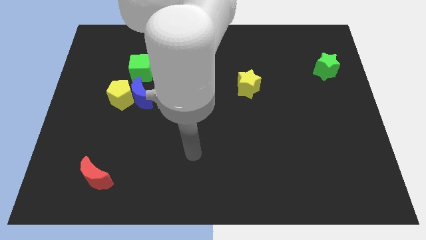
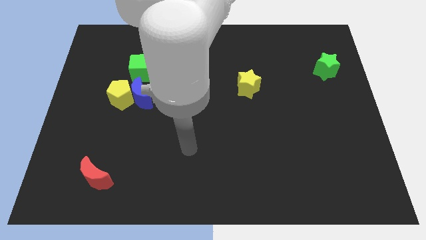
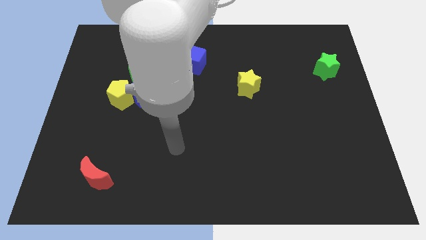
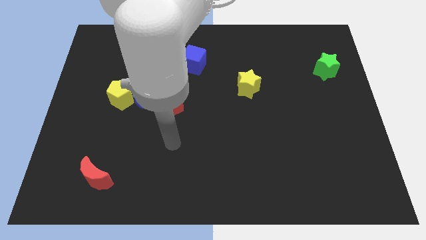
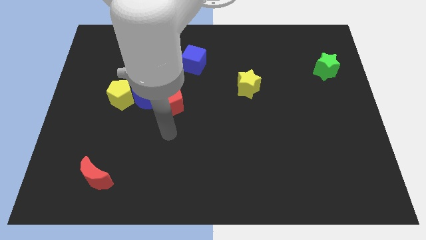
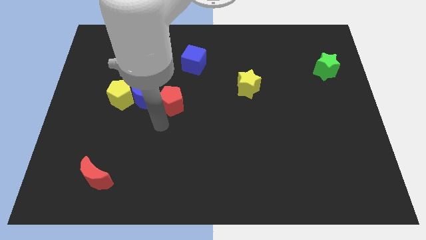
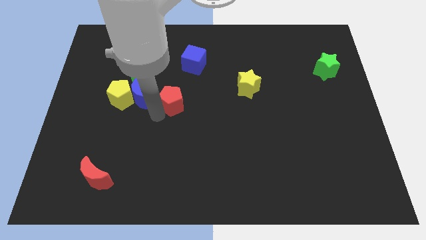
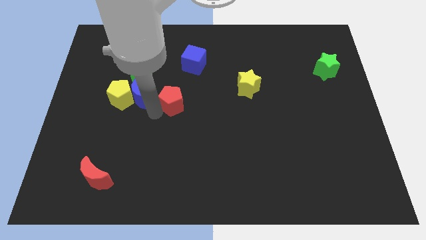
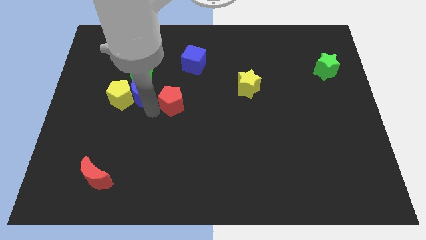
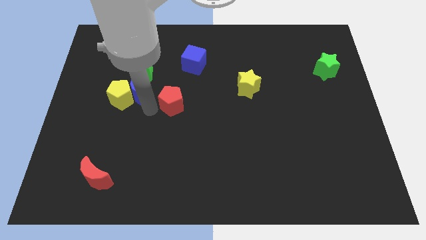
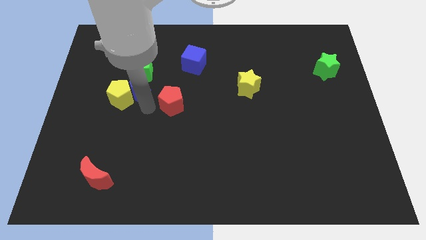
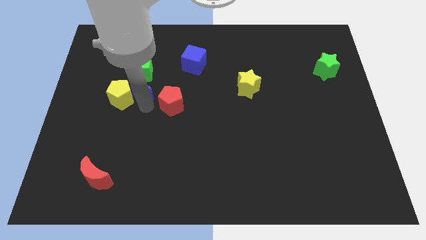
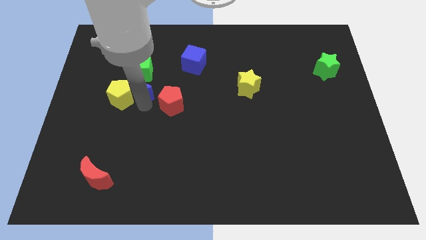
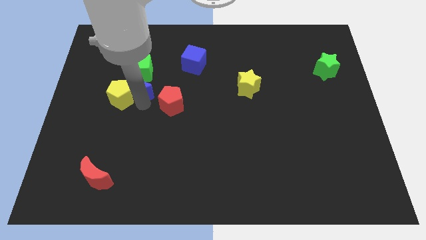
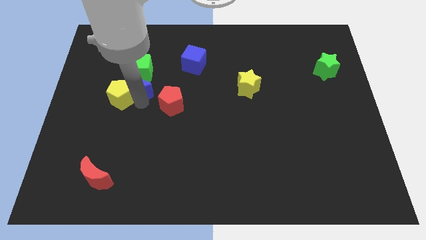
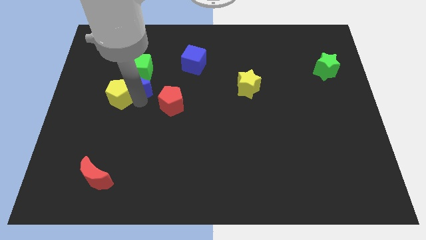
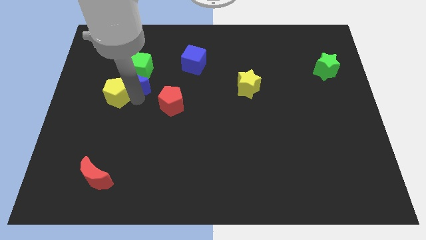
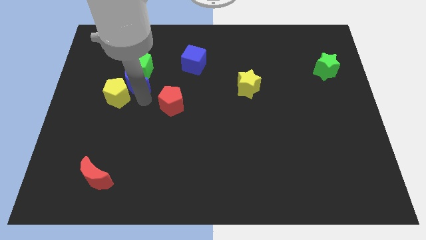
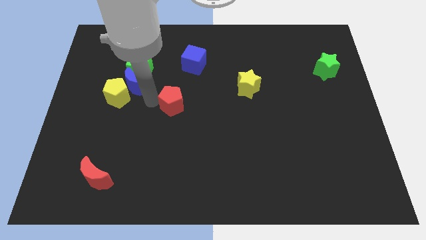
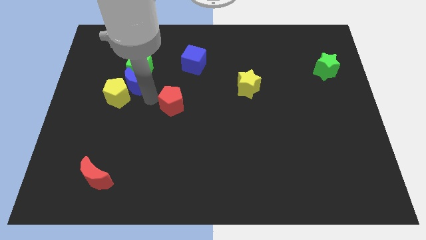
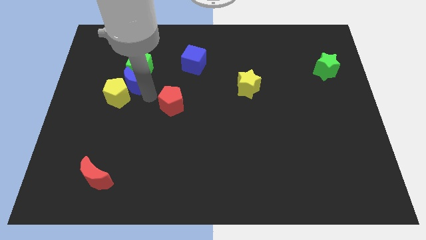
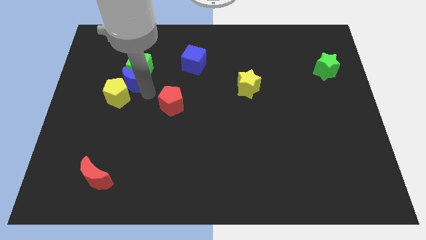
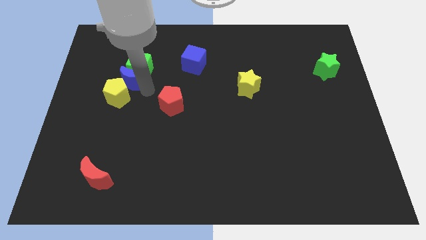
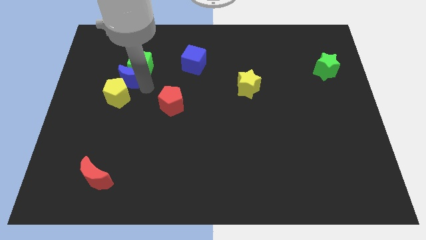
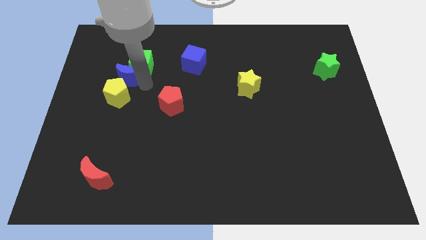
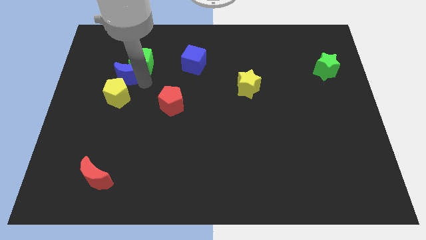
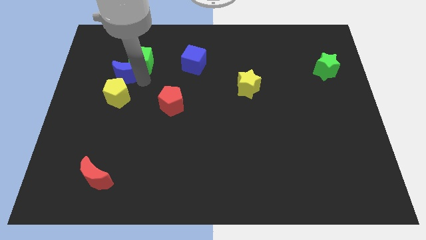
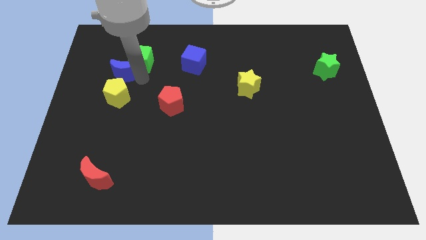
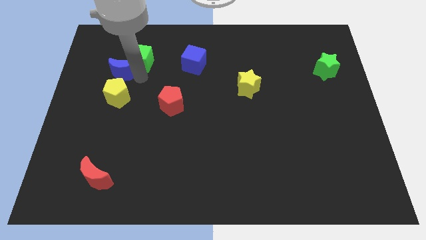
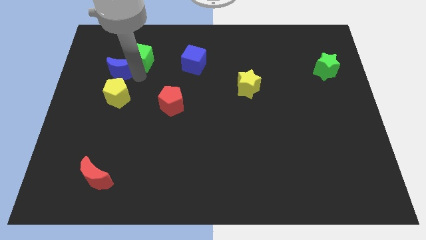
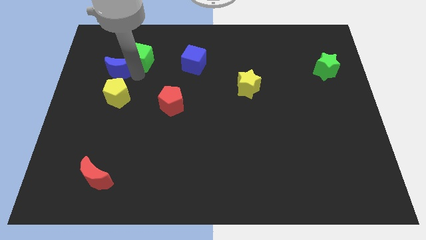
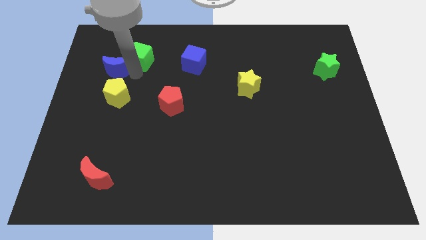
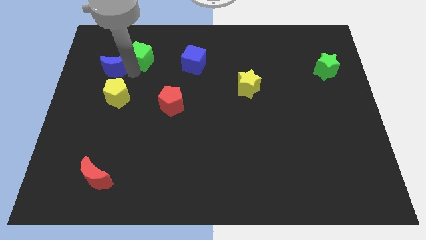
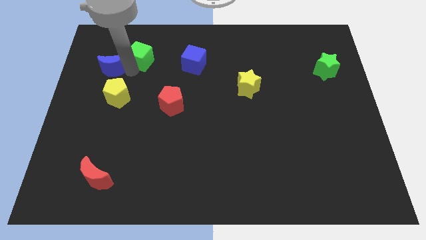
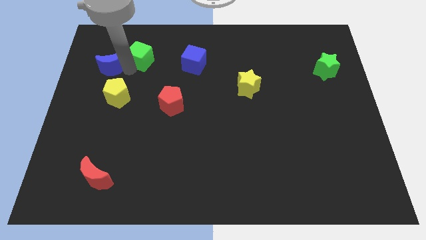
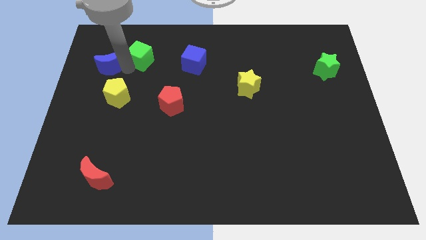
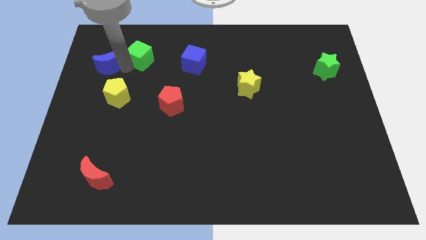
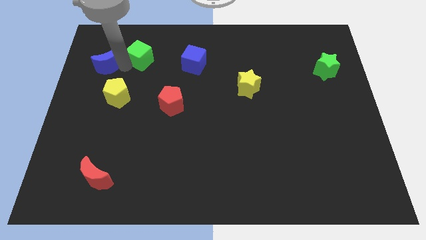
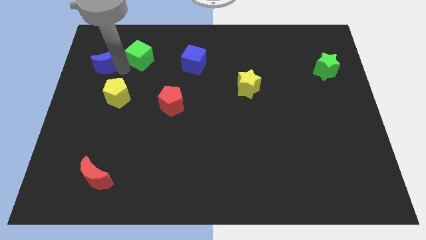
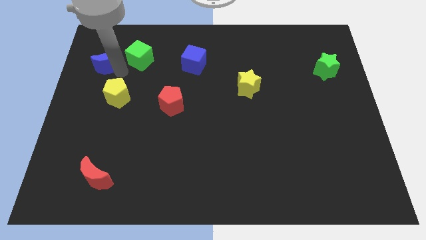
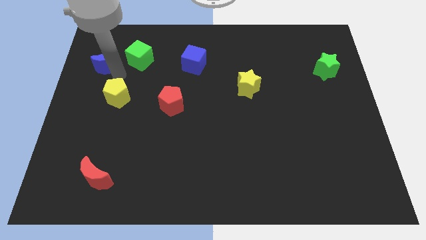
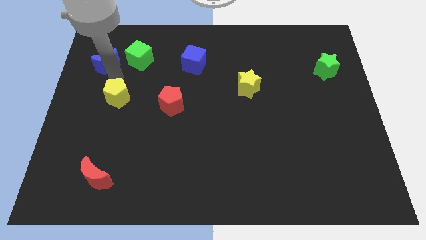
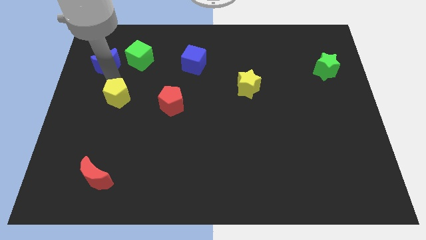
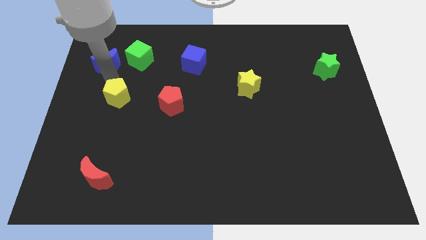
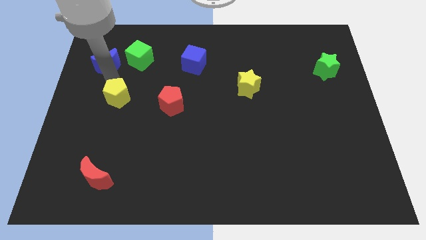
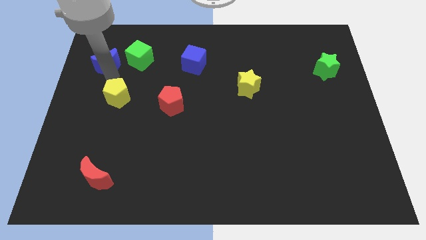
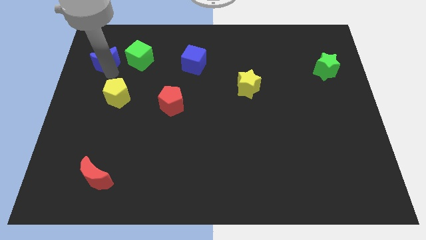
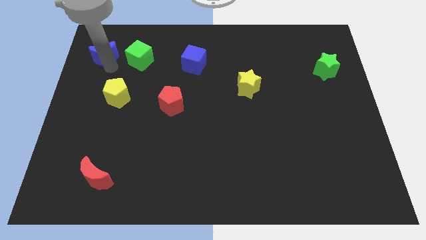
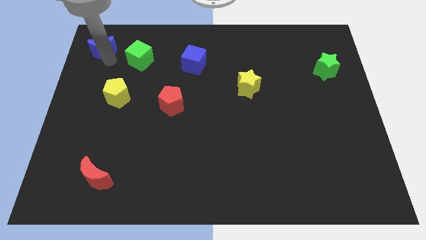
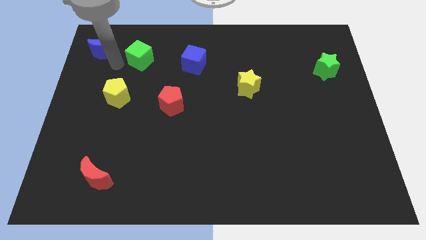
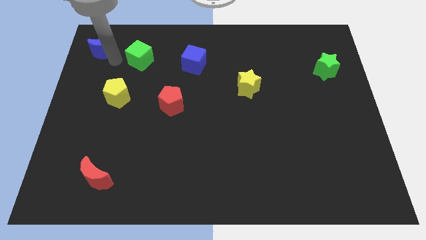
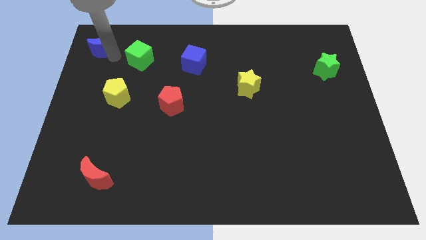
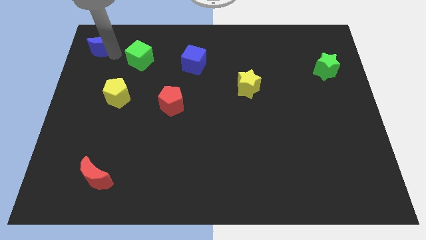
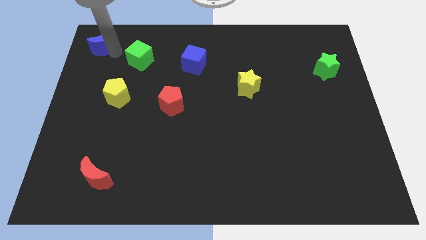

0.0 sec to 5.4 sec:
push the blue moon to the top left

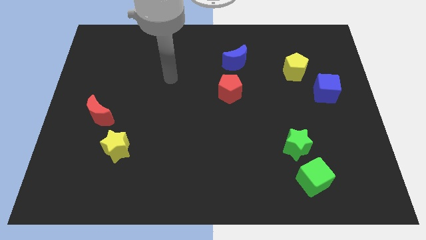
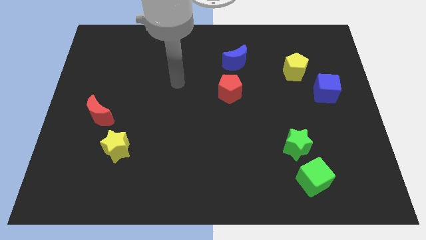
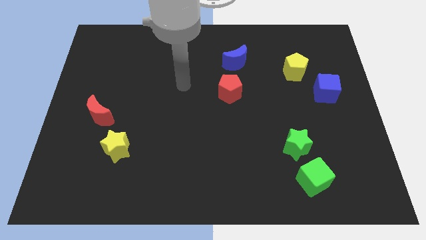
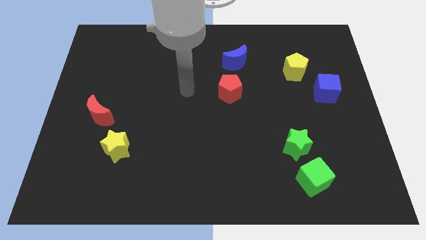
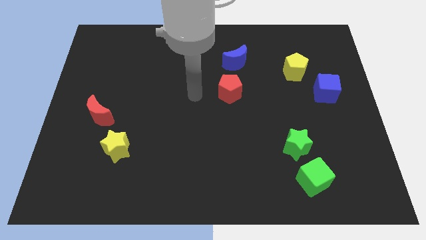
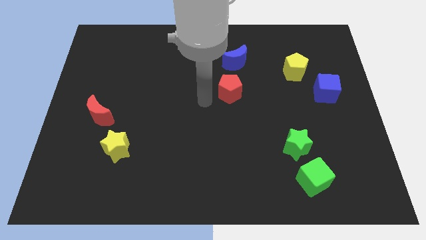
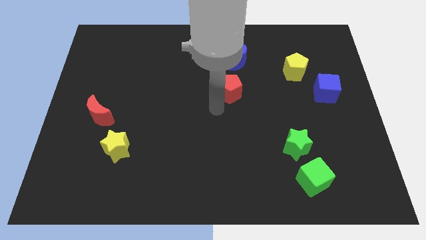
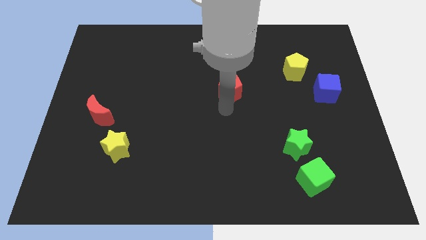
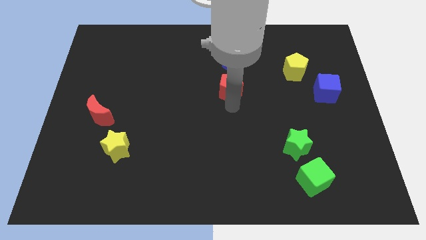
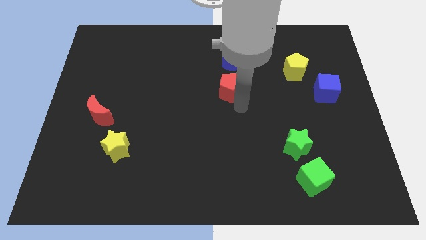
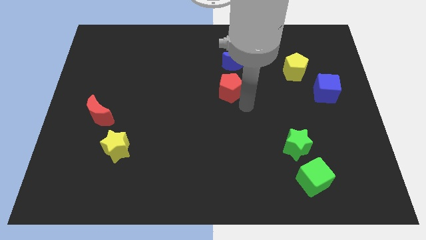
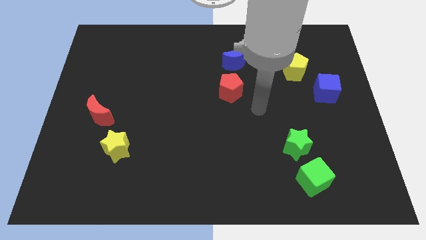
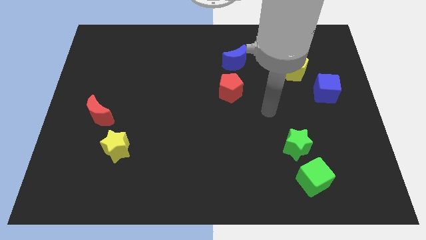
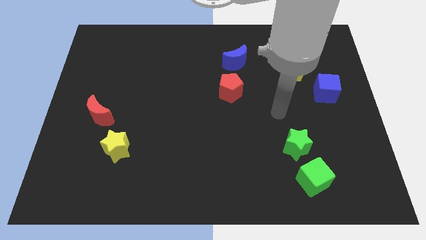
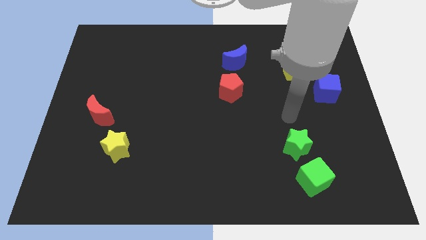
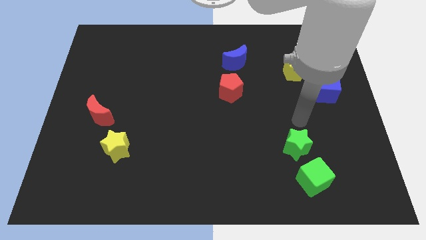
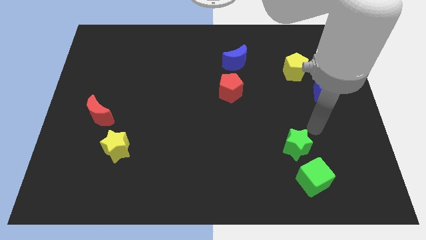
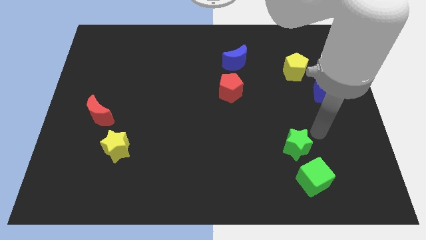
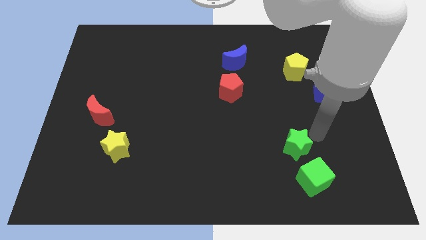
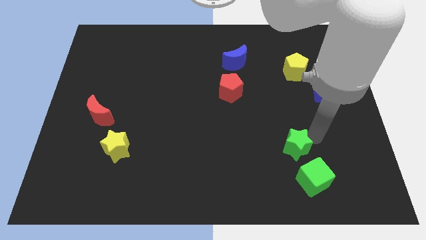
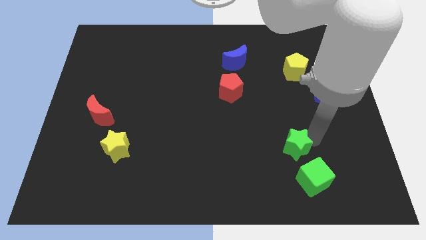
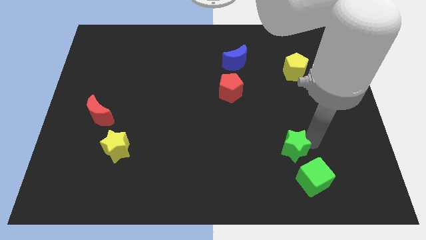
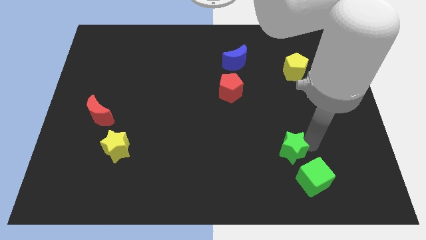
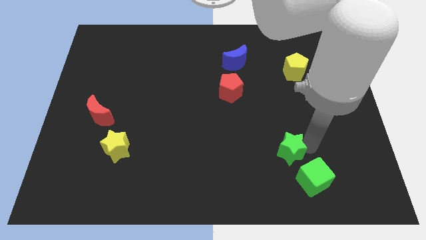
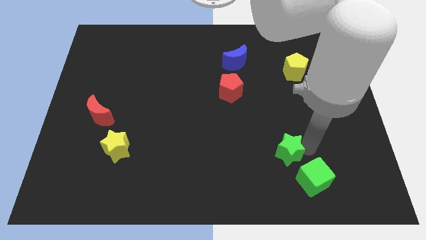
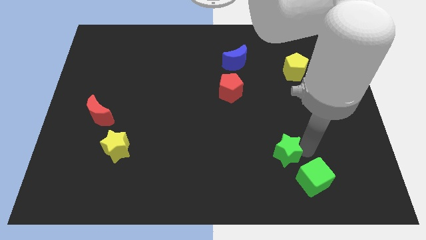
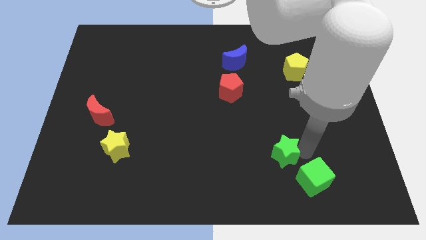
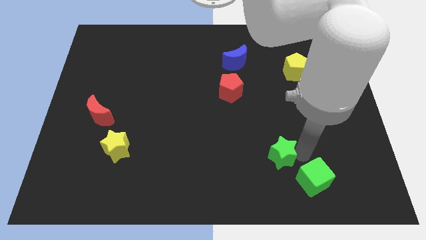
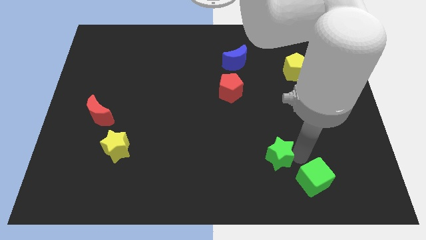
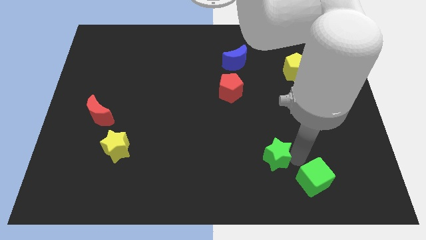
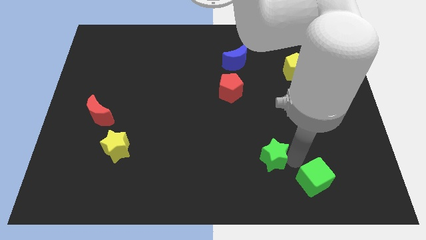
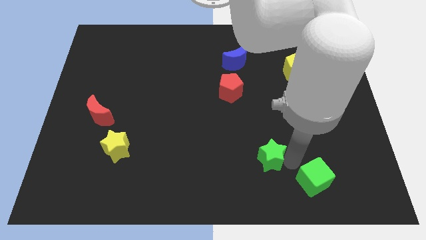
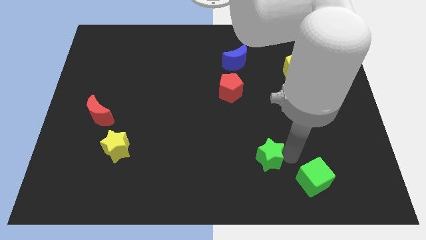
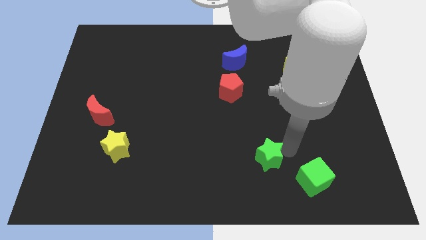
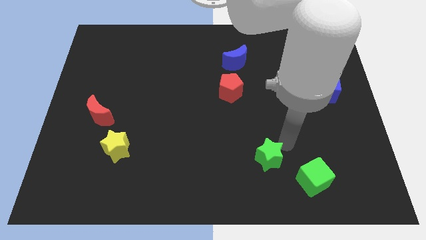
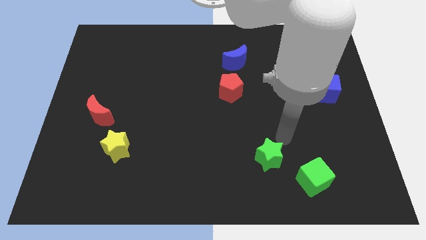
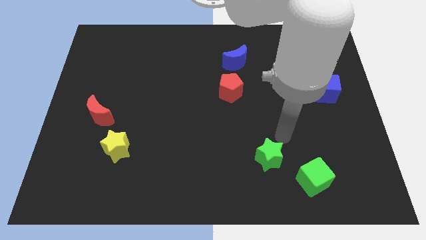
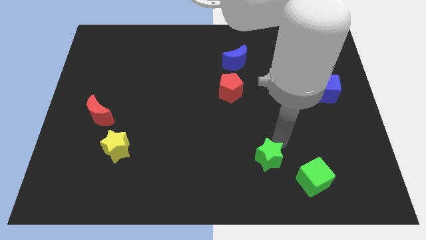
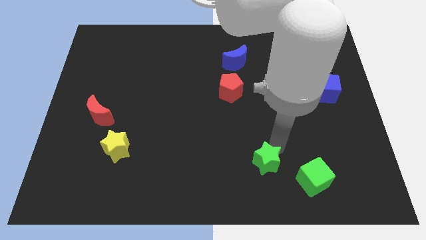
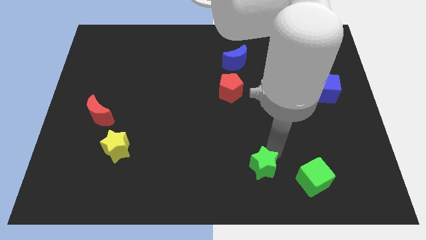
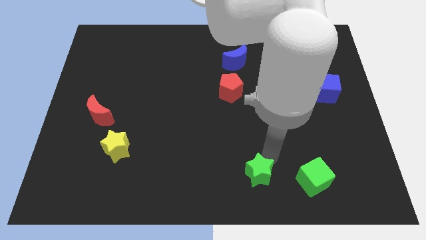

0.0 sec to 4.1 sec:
push the green star to the bottom
